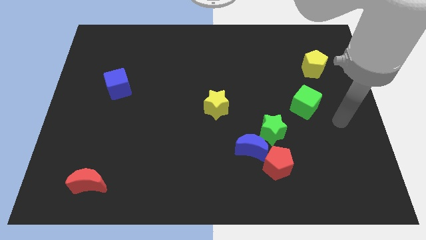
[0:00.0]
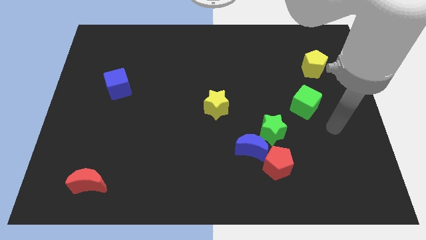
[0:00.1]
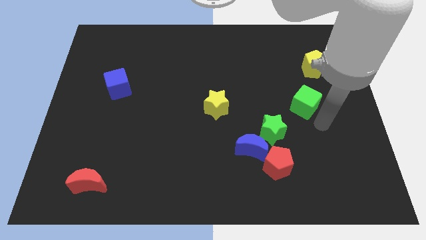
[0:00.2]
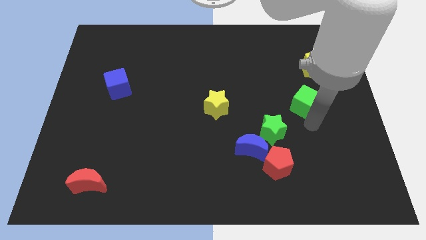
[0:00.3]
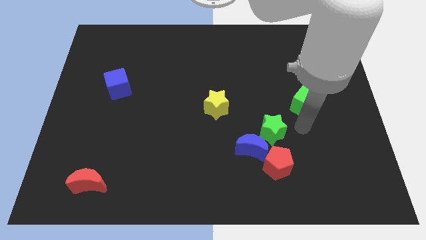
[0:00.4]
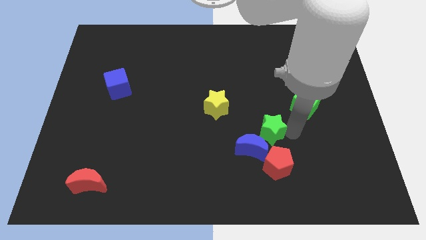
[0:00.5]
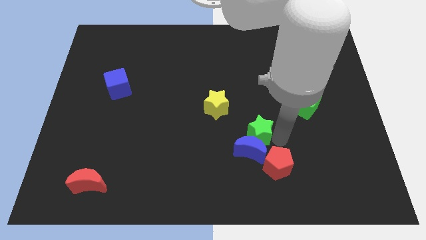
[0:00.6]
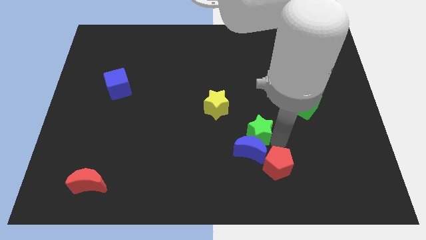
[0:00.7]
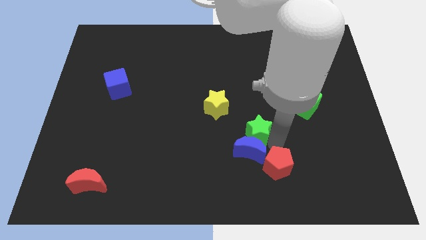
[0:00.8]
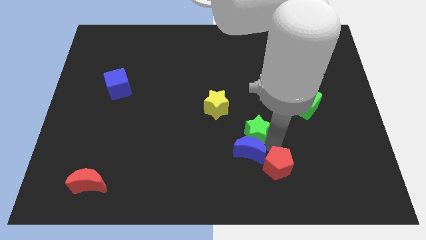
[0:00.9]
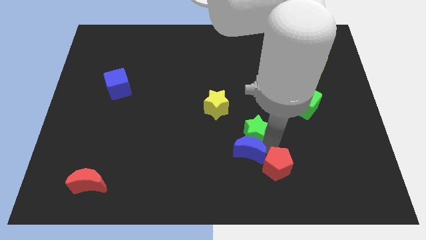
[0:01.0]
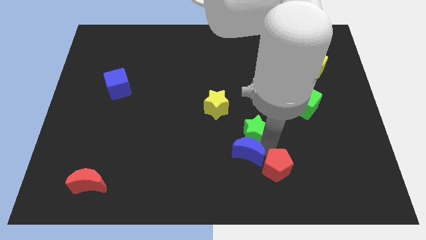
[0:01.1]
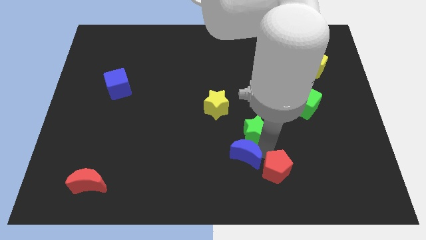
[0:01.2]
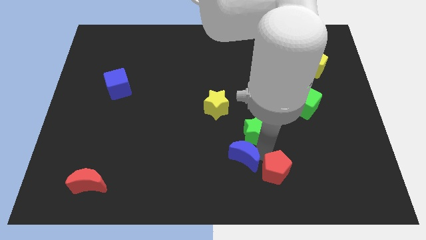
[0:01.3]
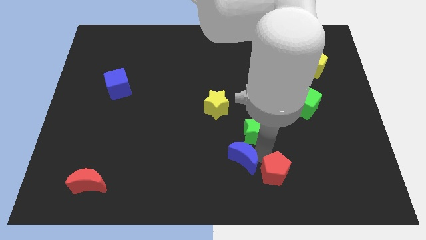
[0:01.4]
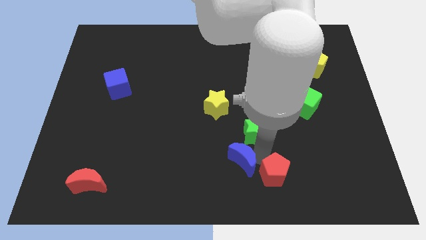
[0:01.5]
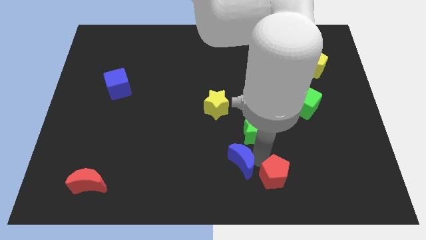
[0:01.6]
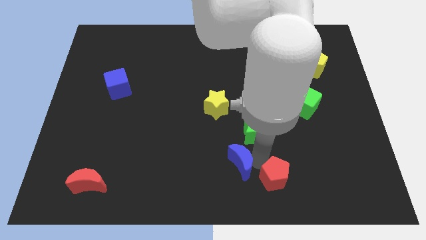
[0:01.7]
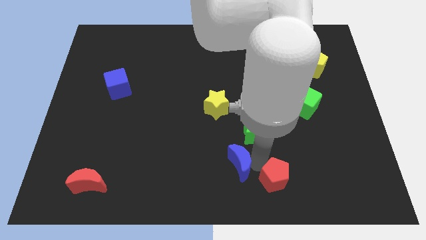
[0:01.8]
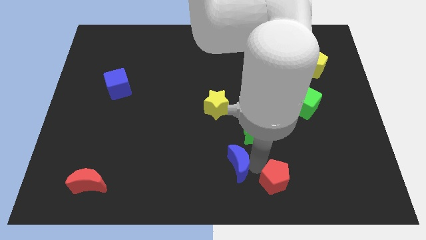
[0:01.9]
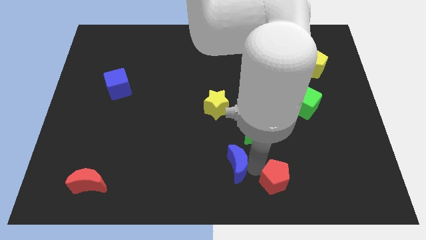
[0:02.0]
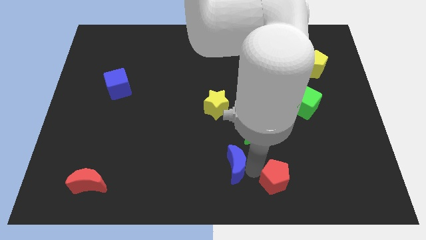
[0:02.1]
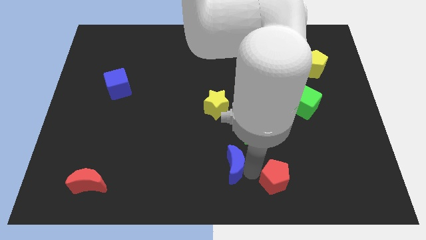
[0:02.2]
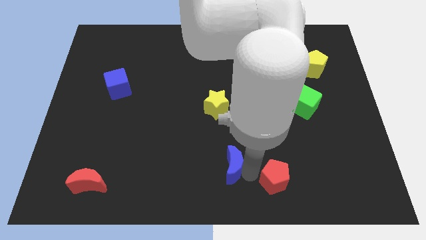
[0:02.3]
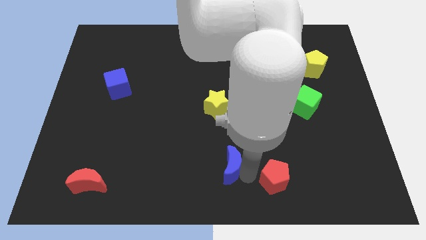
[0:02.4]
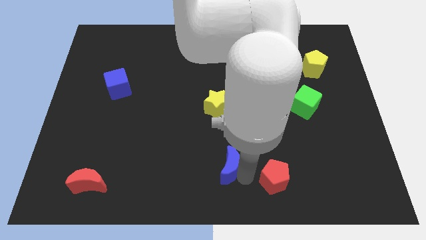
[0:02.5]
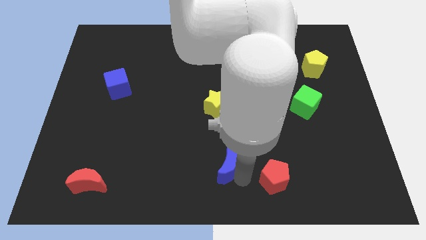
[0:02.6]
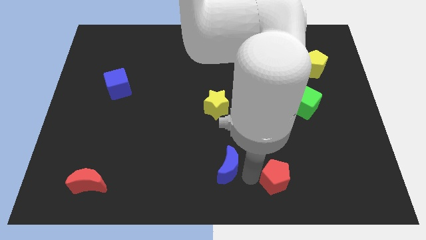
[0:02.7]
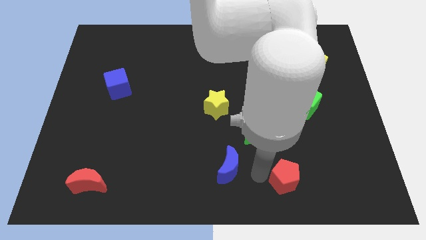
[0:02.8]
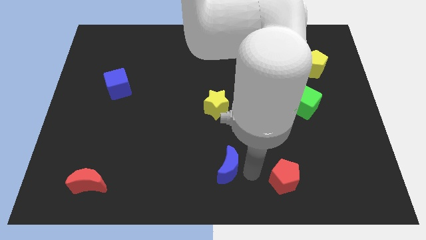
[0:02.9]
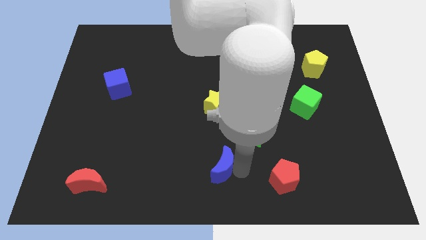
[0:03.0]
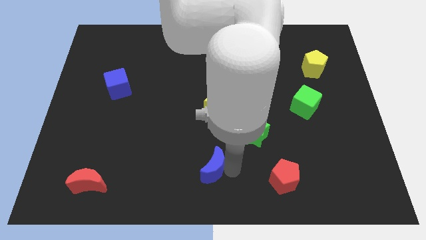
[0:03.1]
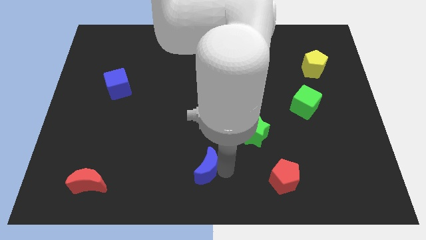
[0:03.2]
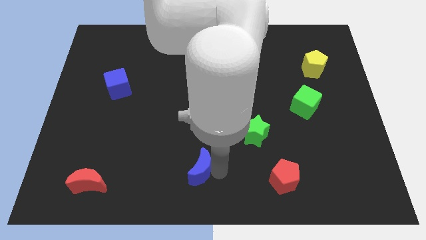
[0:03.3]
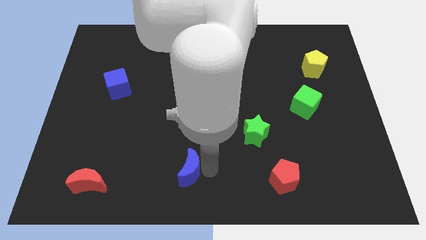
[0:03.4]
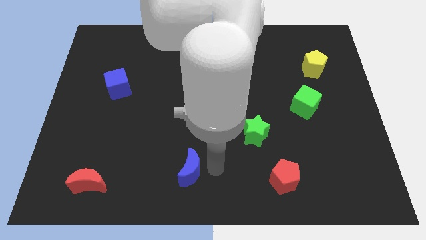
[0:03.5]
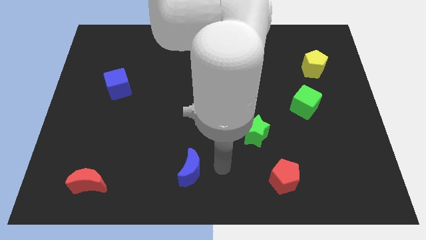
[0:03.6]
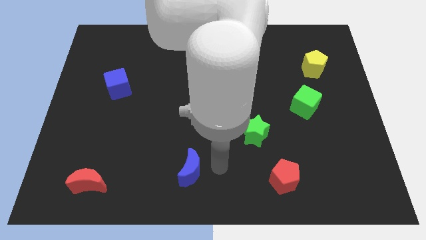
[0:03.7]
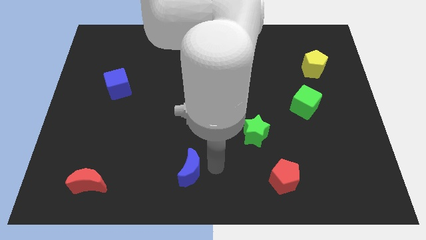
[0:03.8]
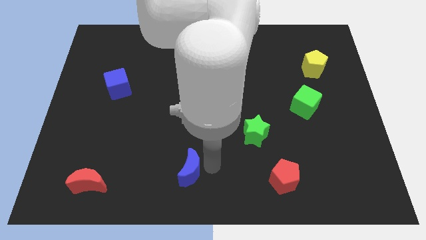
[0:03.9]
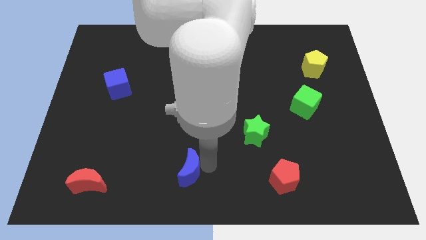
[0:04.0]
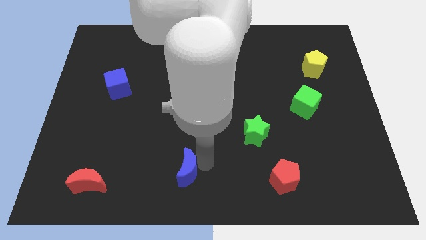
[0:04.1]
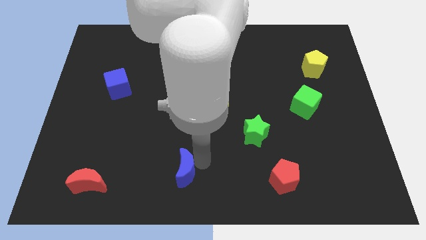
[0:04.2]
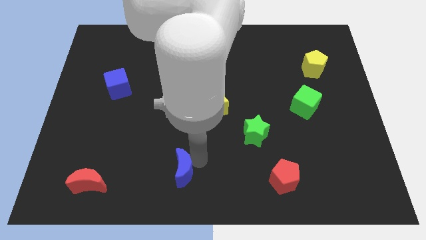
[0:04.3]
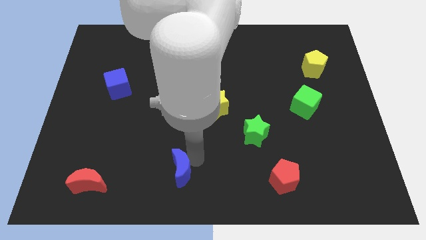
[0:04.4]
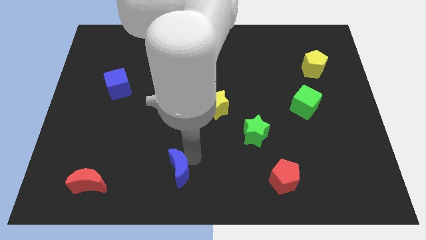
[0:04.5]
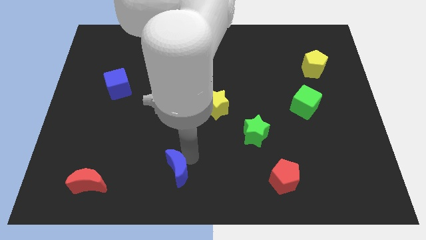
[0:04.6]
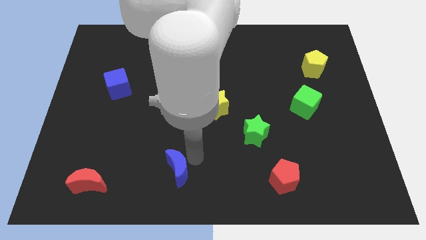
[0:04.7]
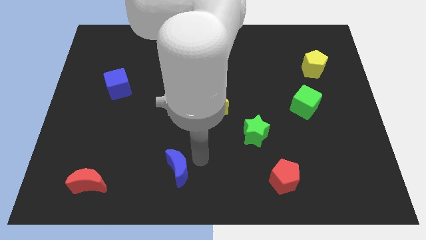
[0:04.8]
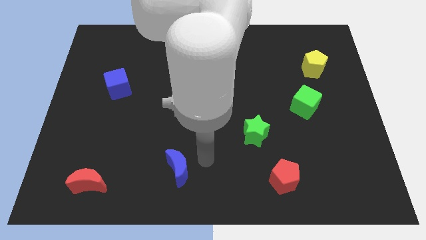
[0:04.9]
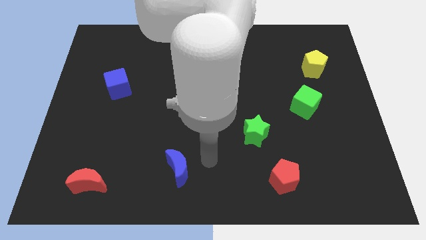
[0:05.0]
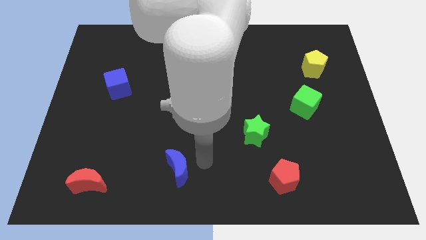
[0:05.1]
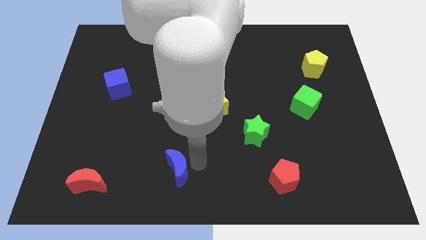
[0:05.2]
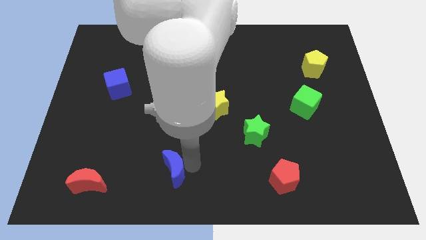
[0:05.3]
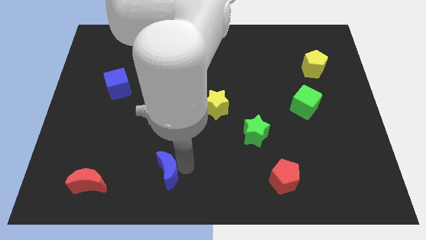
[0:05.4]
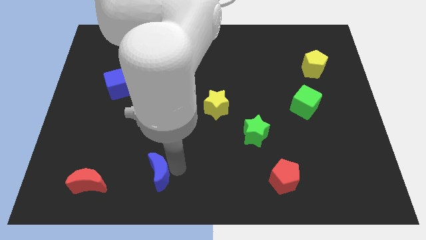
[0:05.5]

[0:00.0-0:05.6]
slide the blue moon to the right side of the red moon

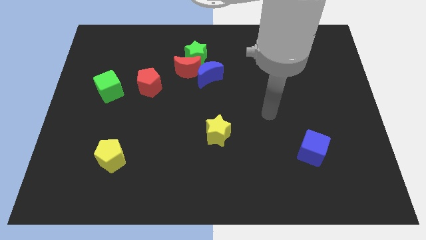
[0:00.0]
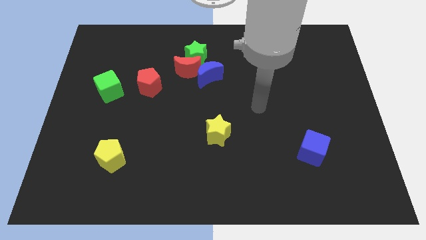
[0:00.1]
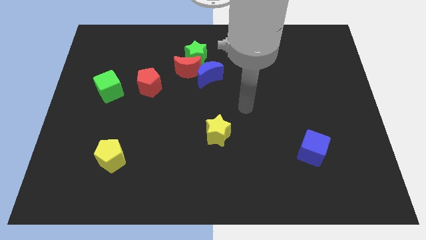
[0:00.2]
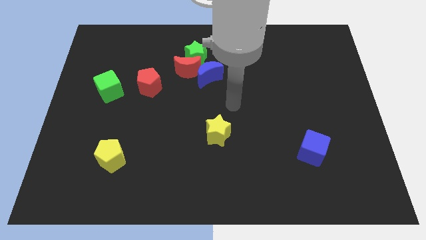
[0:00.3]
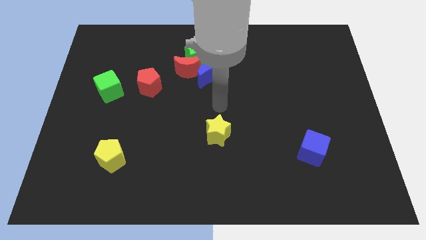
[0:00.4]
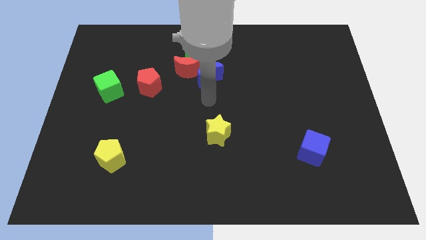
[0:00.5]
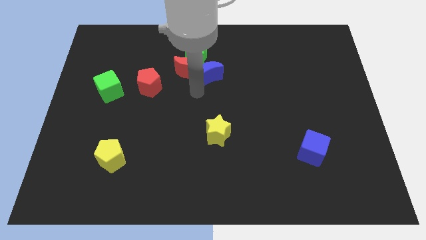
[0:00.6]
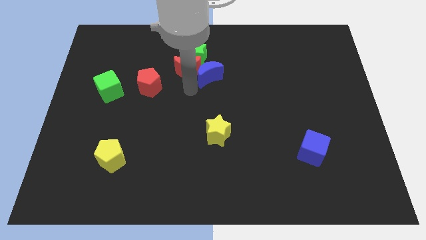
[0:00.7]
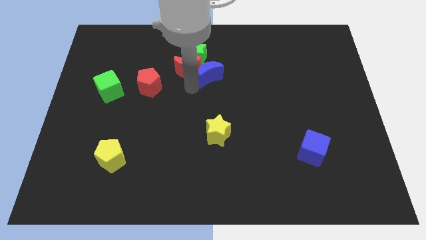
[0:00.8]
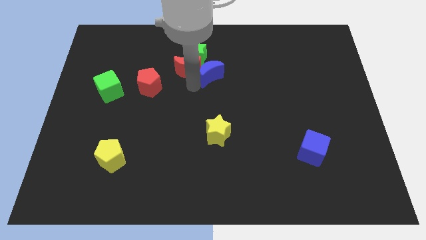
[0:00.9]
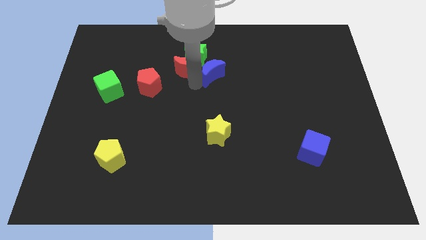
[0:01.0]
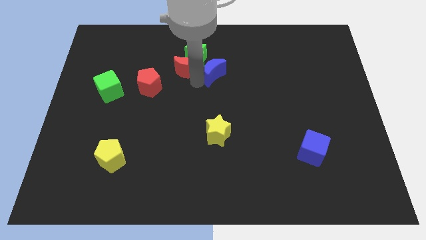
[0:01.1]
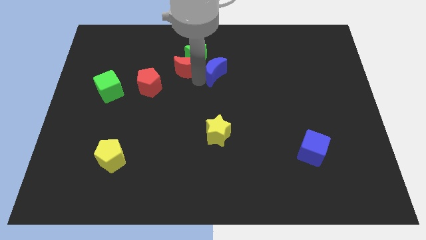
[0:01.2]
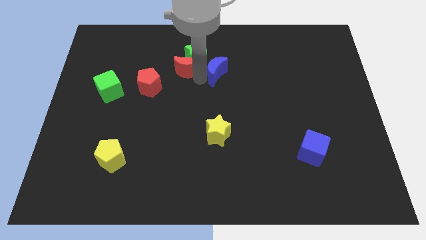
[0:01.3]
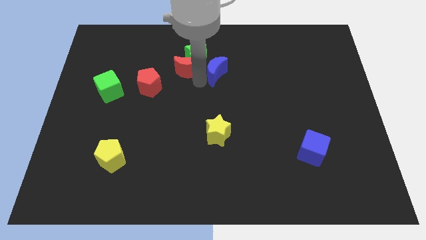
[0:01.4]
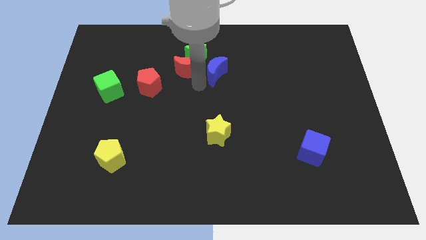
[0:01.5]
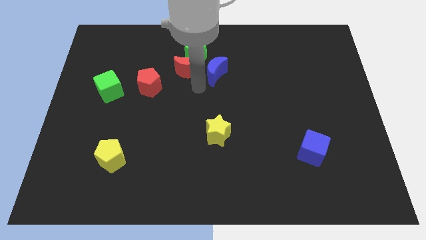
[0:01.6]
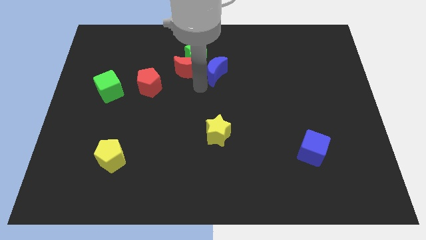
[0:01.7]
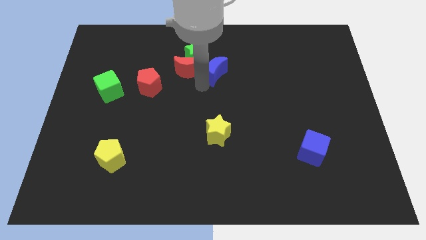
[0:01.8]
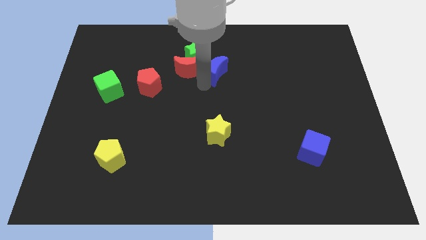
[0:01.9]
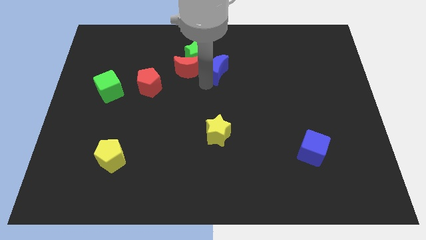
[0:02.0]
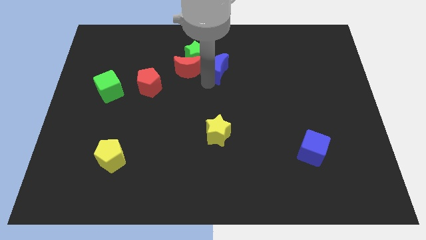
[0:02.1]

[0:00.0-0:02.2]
slide the blue moon just right of the green star
